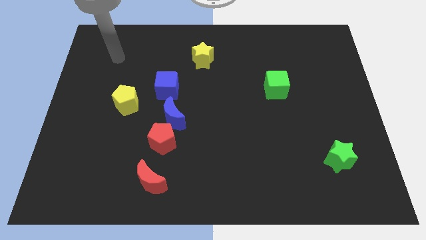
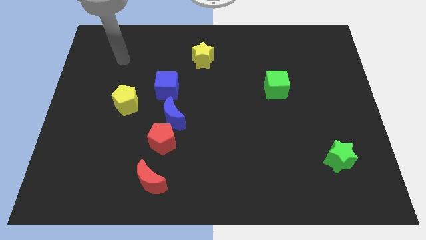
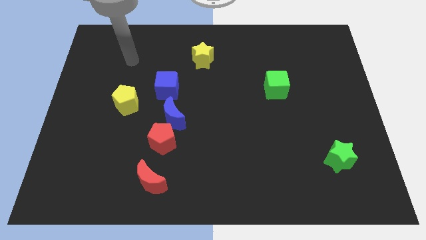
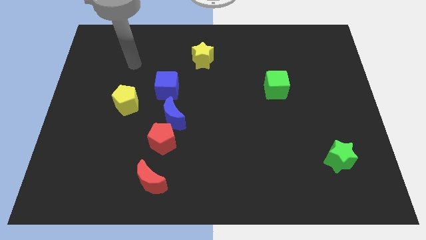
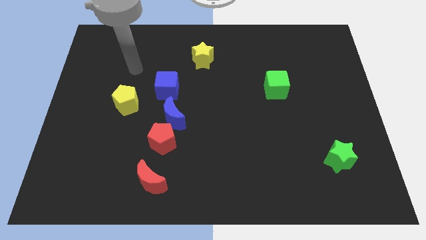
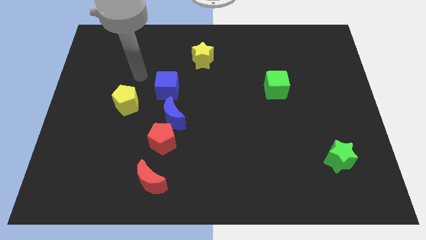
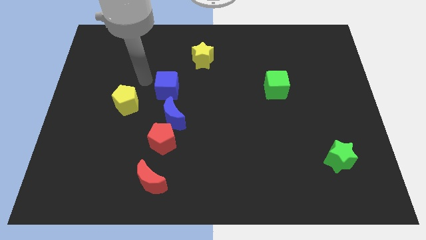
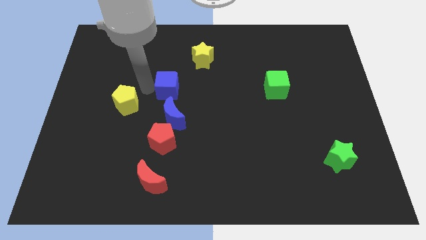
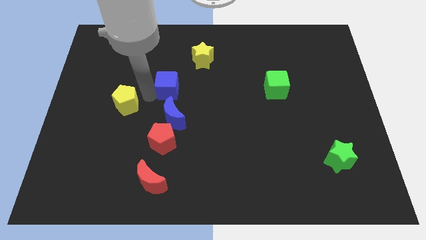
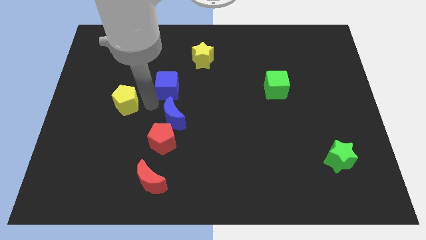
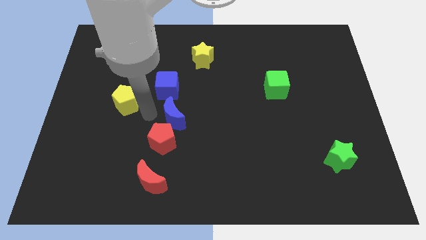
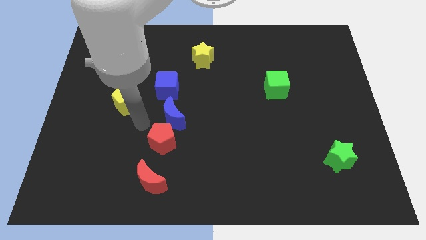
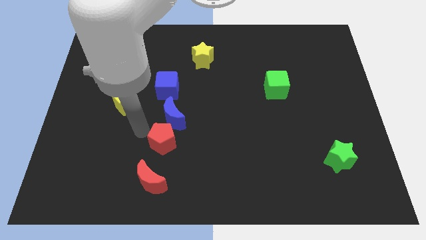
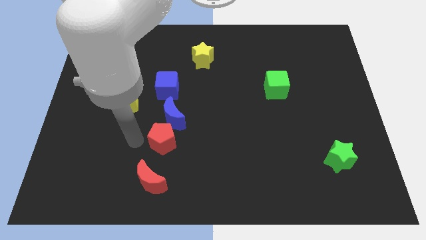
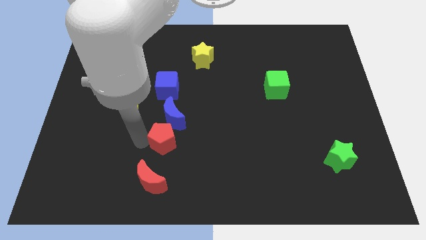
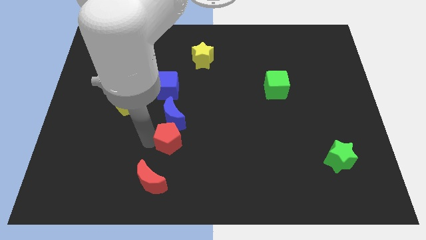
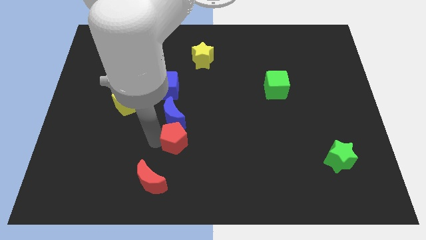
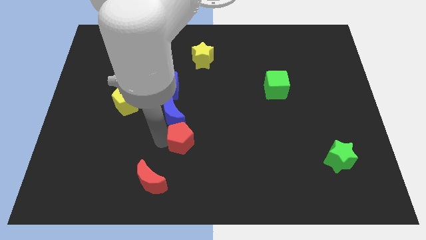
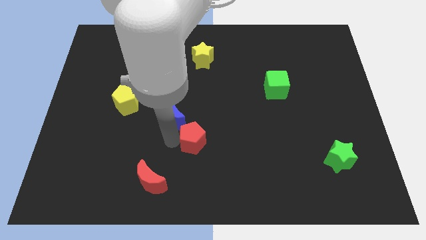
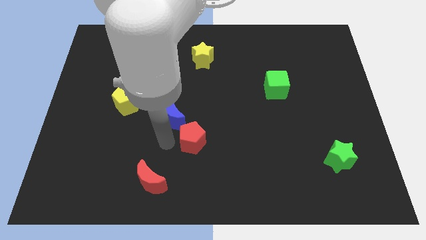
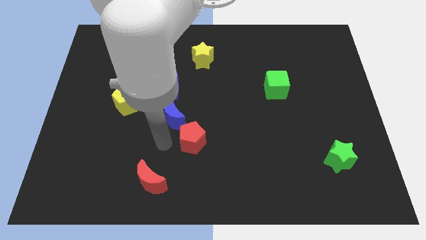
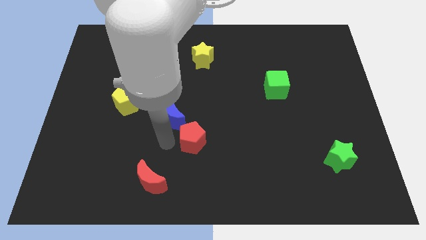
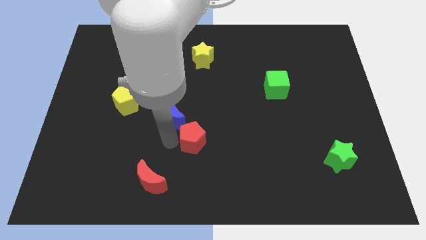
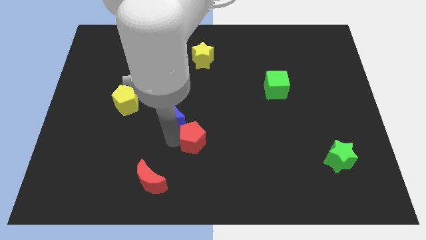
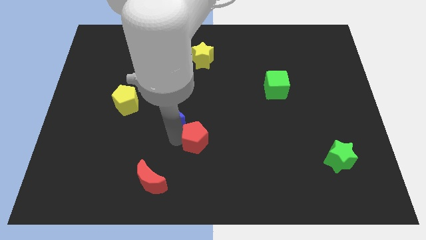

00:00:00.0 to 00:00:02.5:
slightly slide the red pentagon to the right

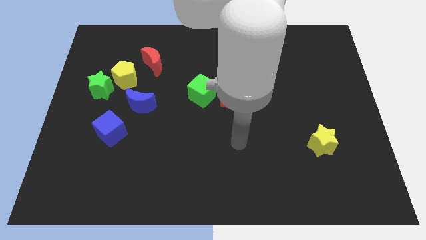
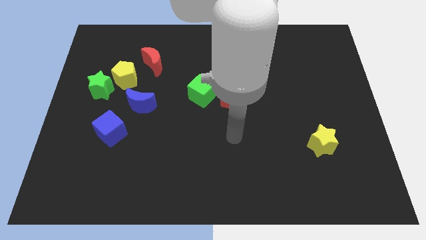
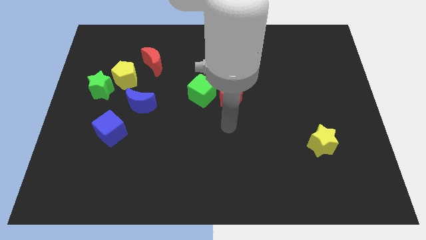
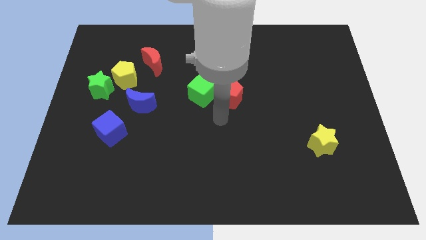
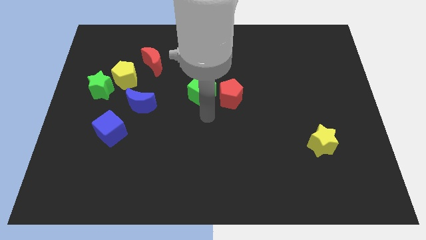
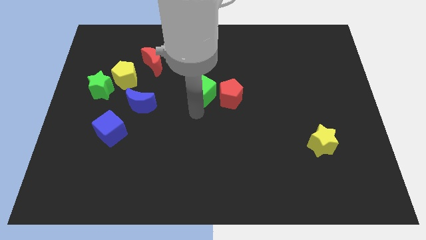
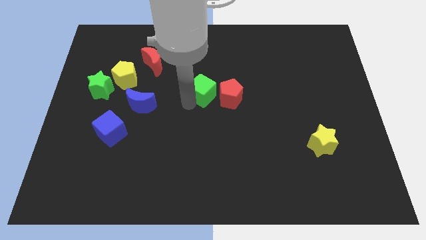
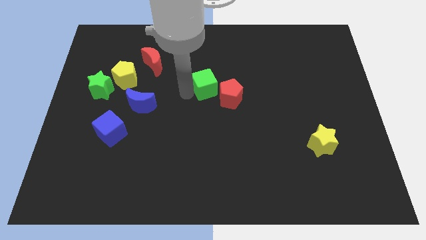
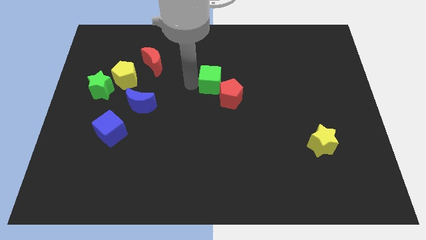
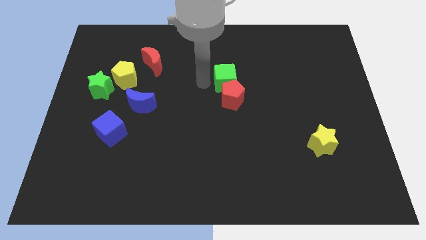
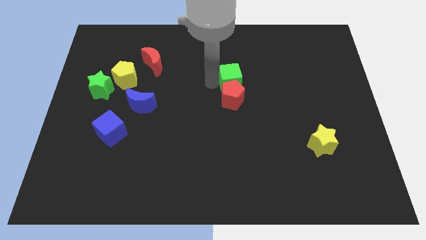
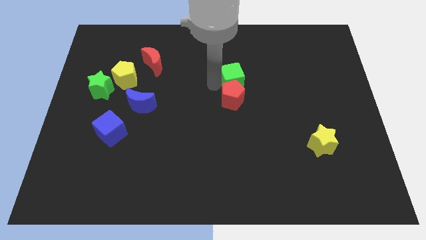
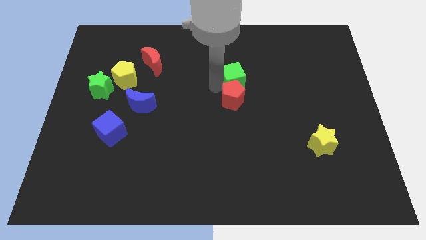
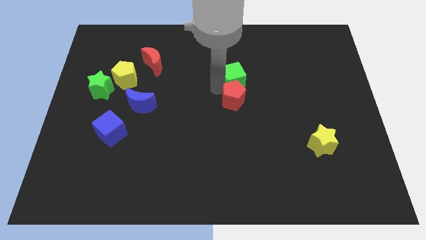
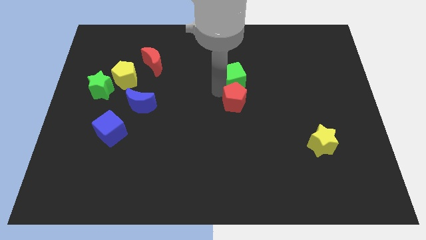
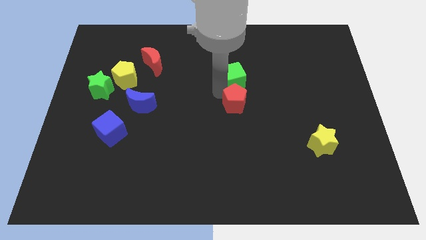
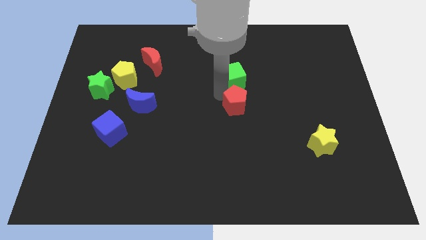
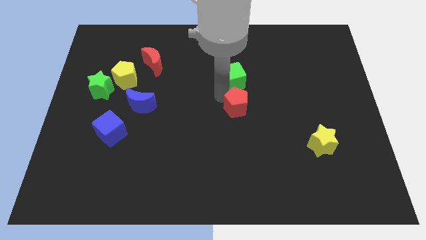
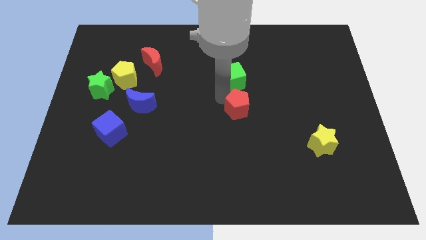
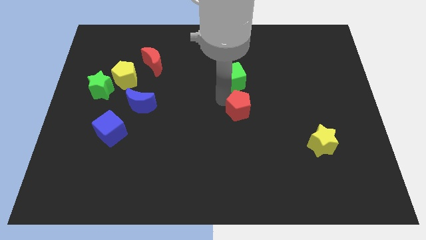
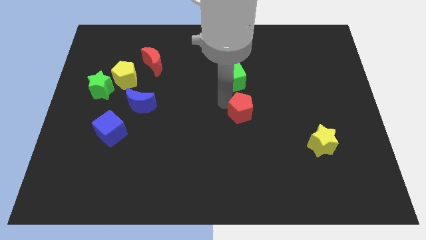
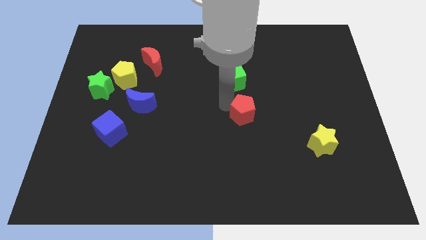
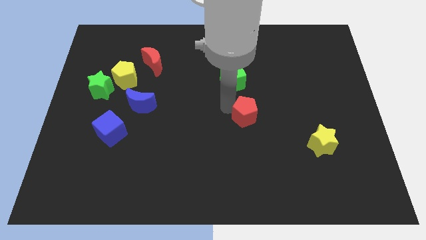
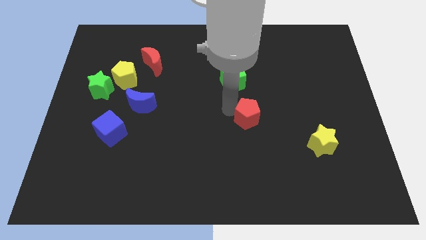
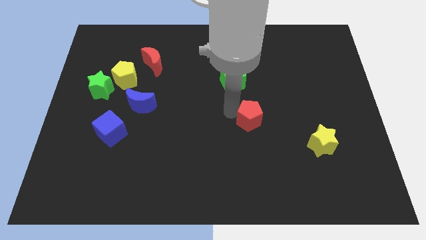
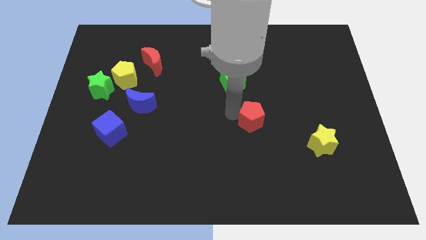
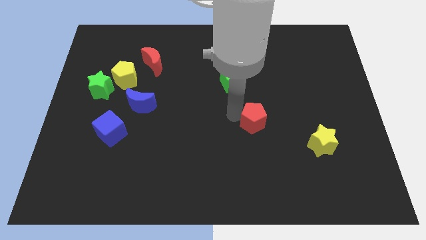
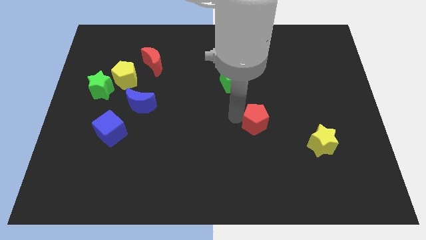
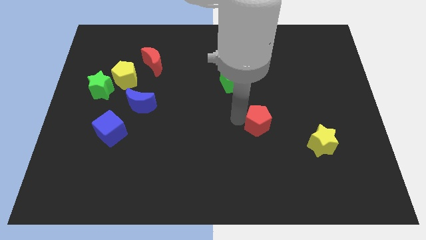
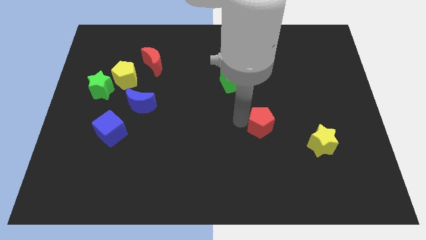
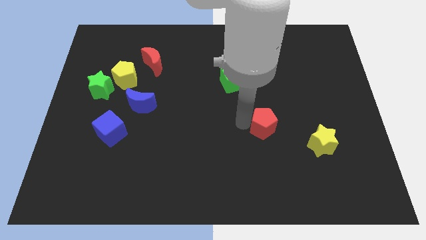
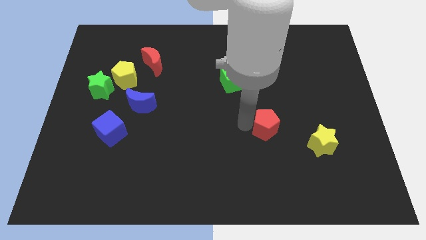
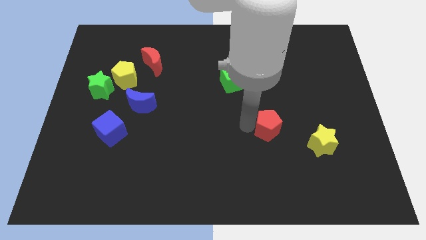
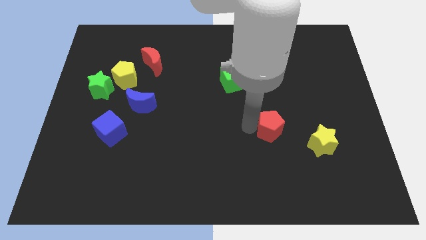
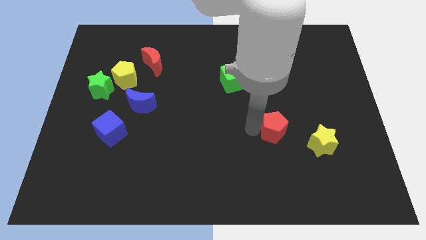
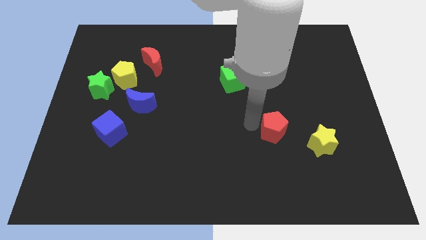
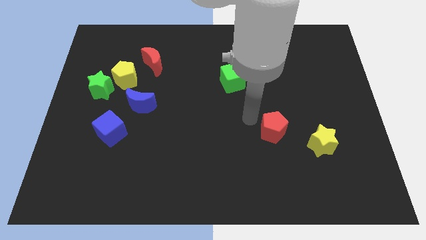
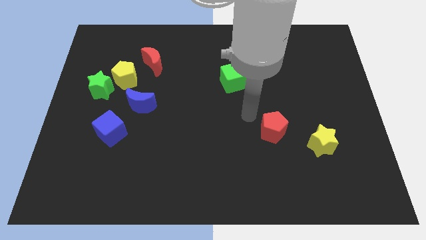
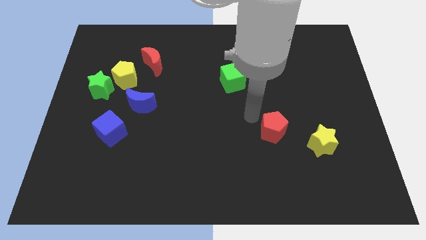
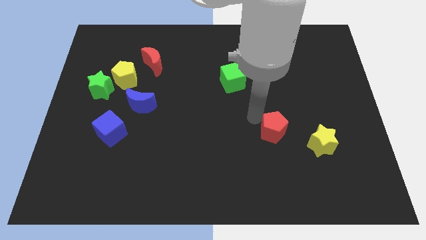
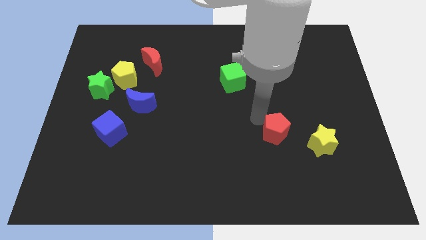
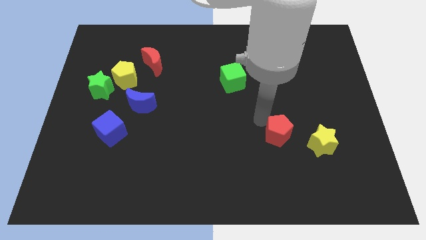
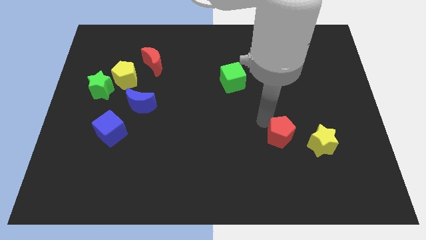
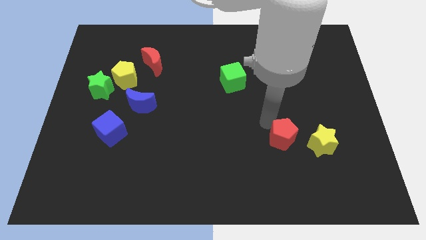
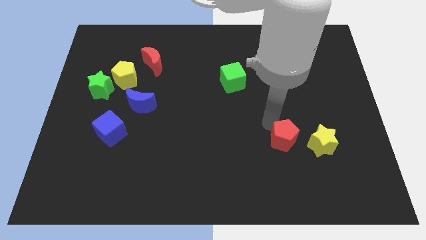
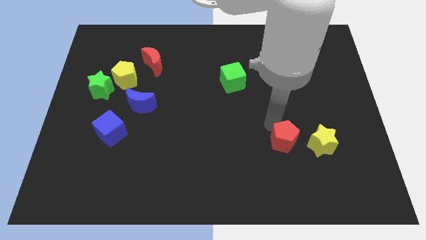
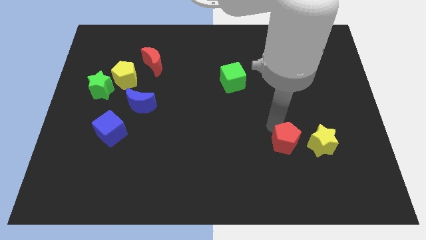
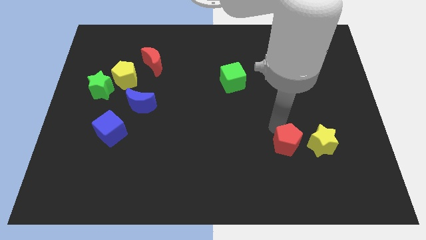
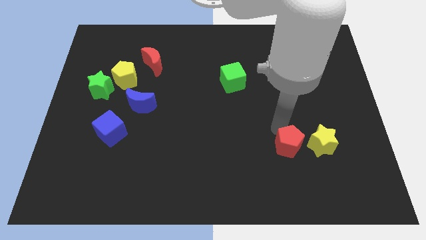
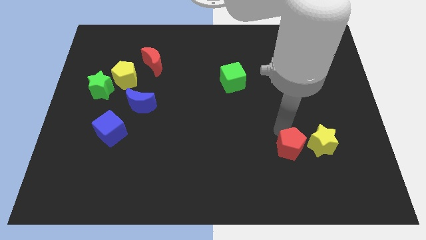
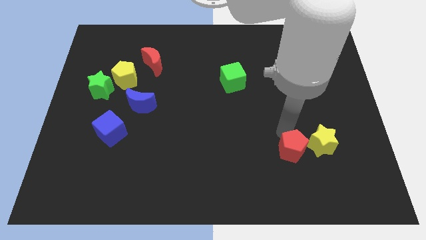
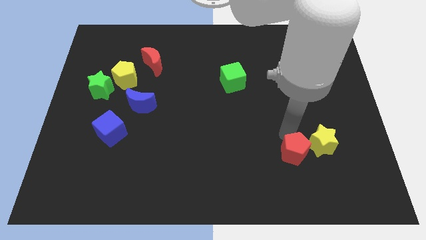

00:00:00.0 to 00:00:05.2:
move the red pentagon down and right

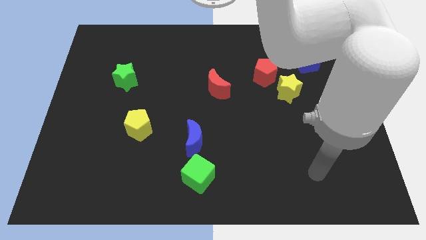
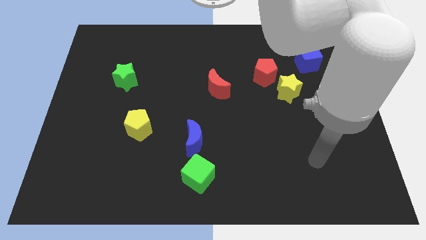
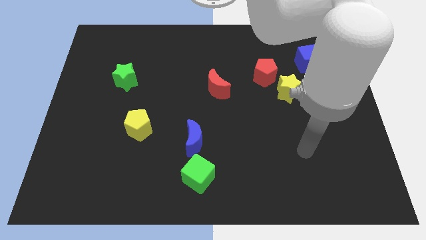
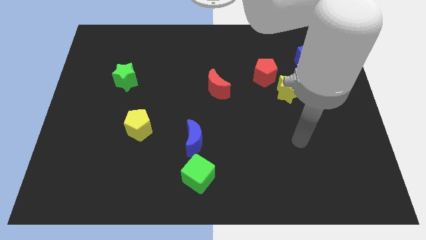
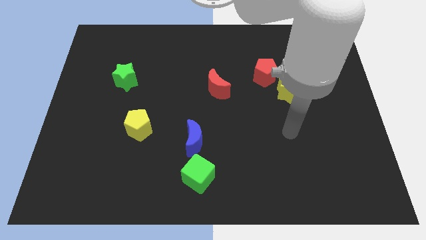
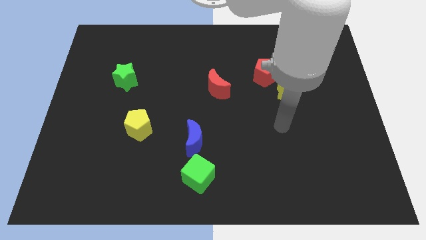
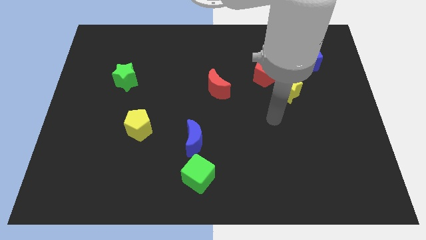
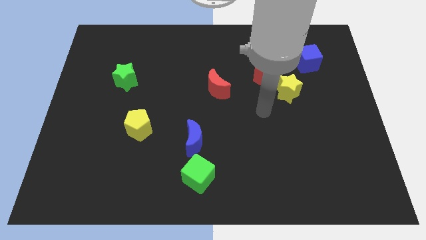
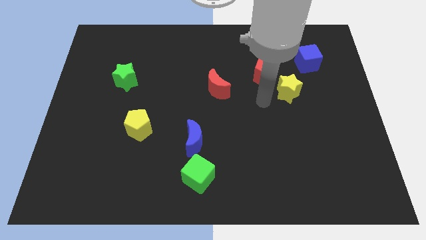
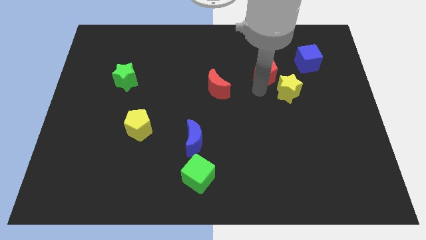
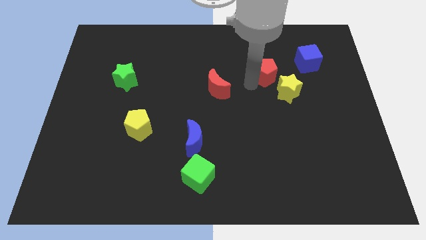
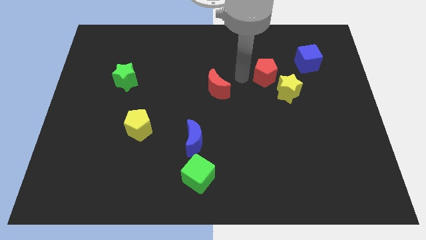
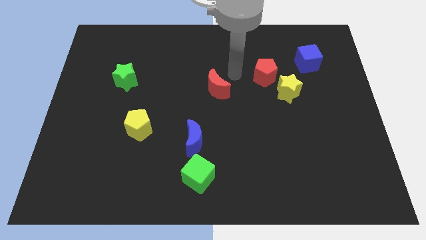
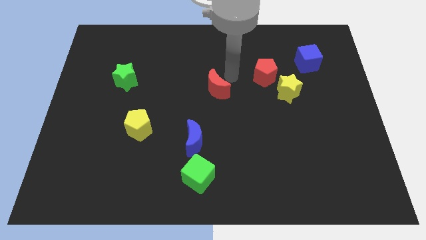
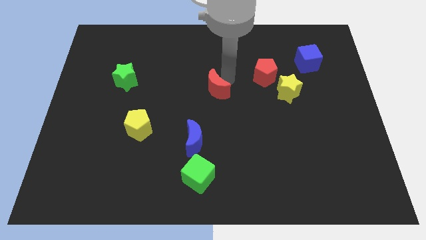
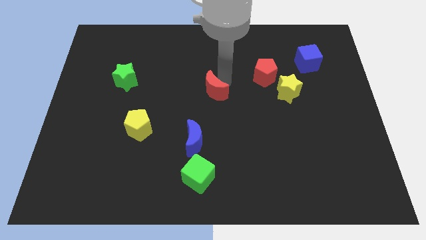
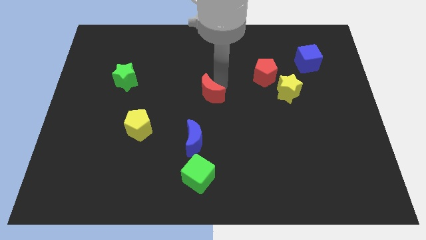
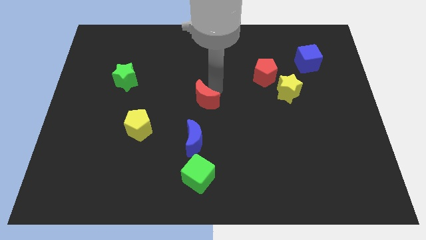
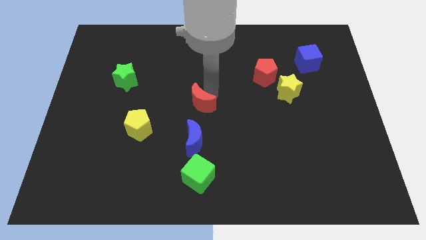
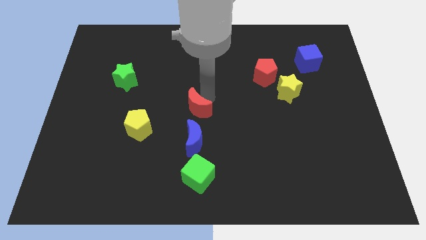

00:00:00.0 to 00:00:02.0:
slide the red moon down and to the left diagonally slightly
